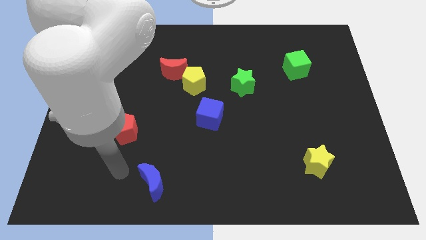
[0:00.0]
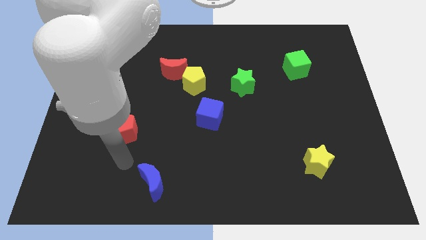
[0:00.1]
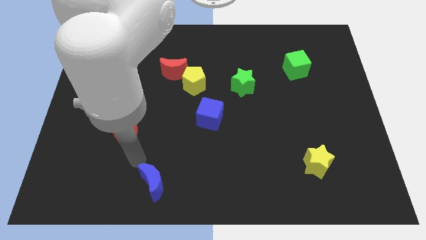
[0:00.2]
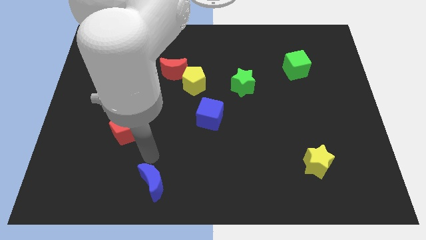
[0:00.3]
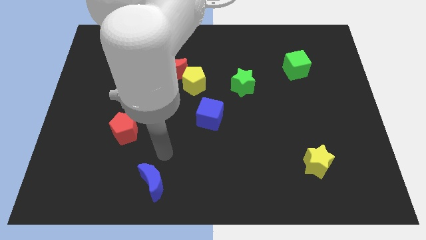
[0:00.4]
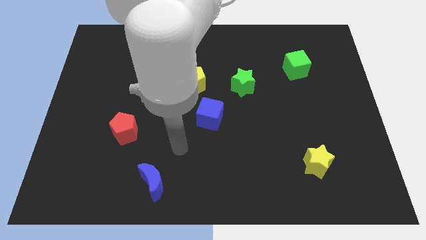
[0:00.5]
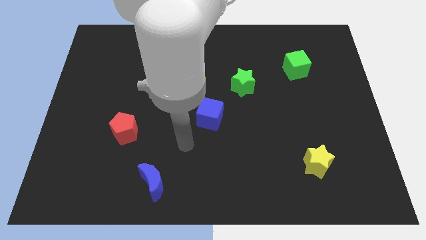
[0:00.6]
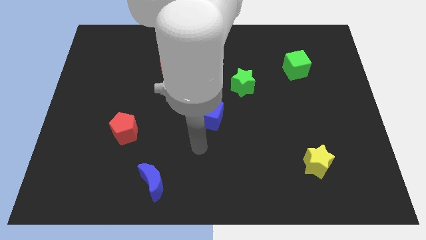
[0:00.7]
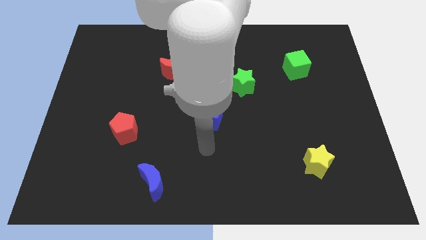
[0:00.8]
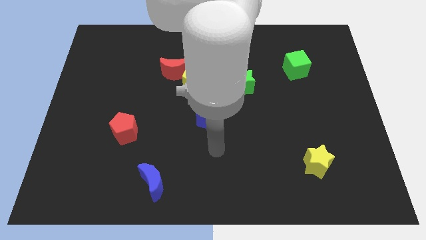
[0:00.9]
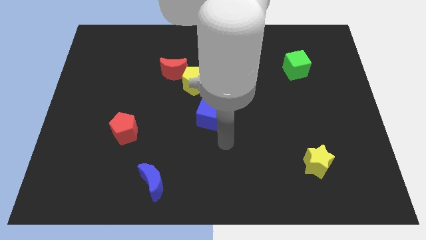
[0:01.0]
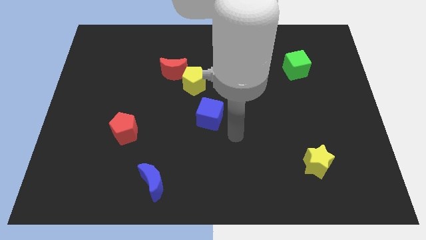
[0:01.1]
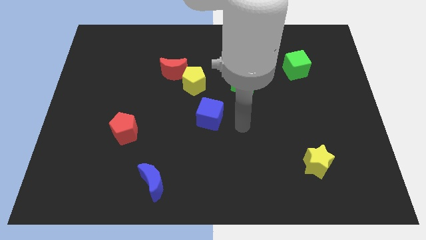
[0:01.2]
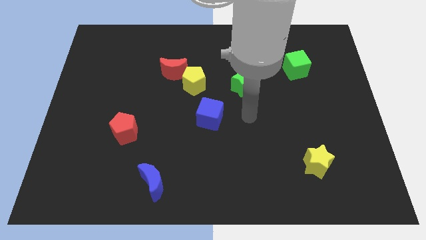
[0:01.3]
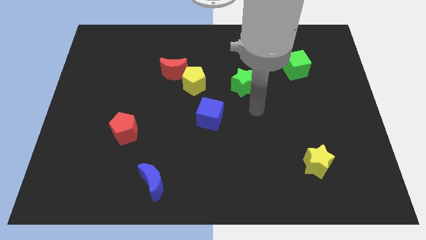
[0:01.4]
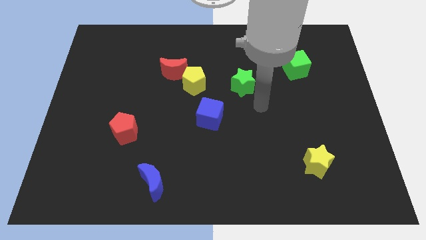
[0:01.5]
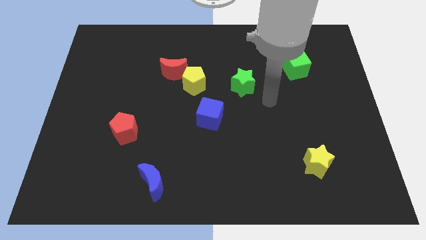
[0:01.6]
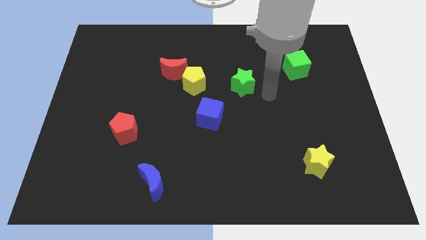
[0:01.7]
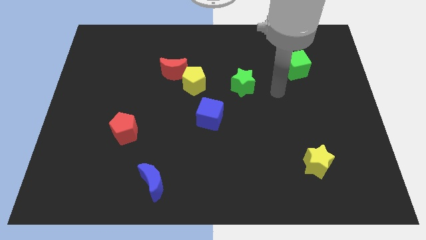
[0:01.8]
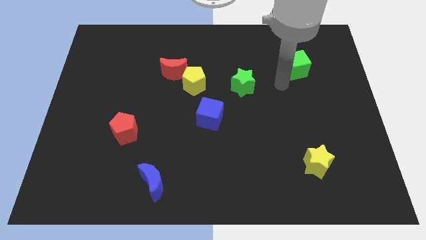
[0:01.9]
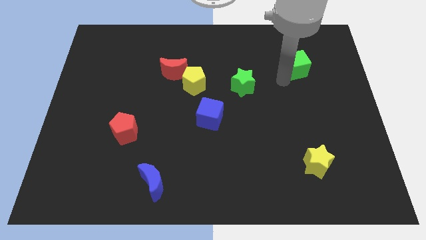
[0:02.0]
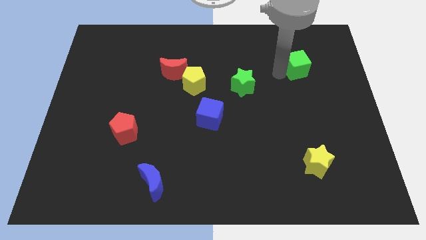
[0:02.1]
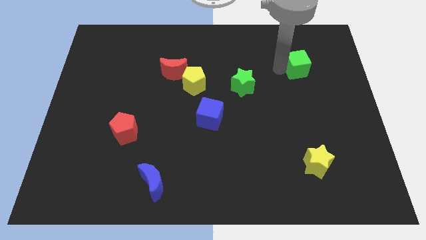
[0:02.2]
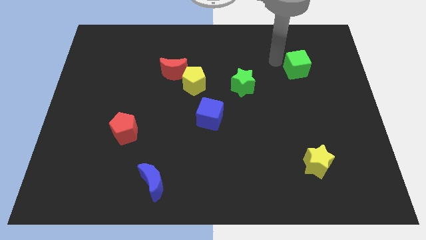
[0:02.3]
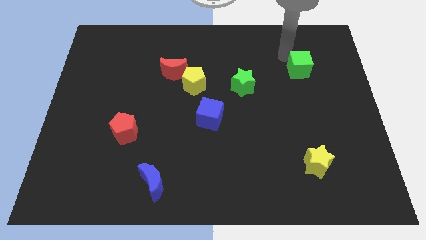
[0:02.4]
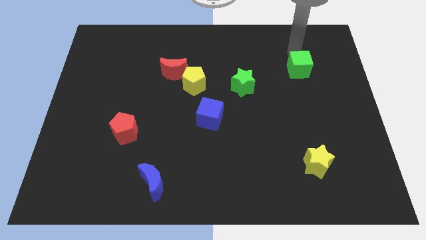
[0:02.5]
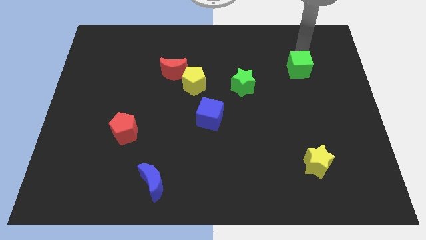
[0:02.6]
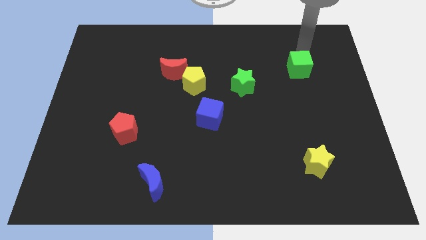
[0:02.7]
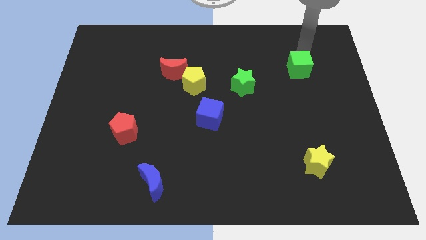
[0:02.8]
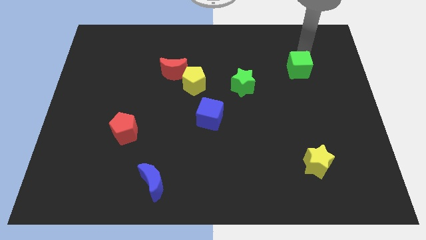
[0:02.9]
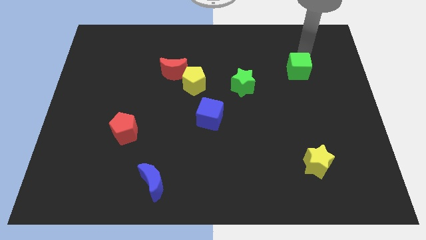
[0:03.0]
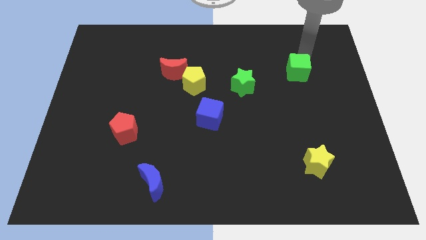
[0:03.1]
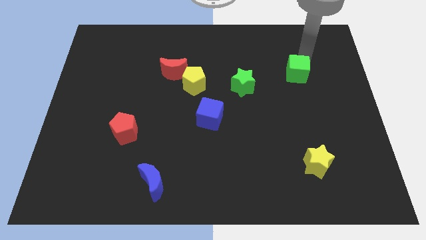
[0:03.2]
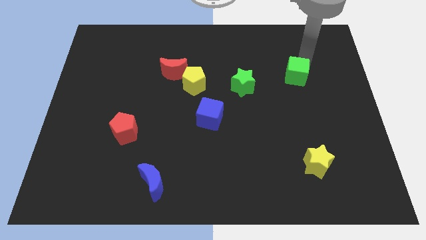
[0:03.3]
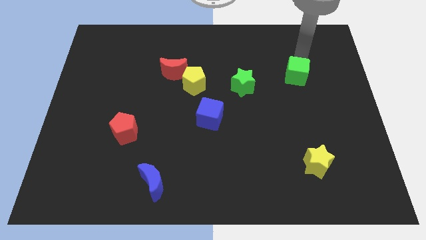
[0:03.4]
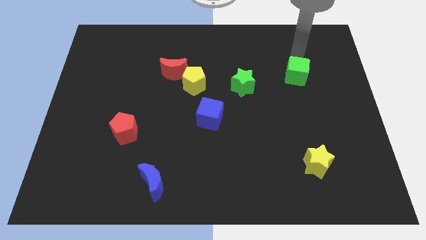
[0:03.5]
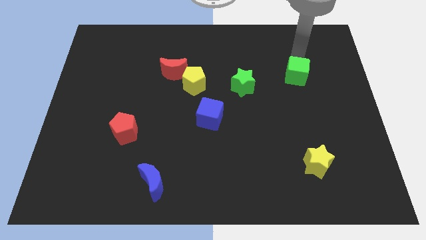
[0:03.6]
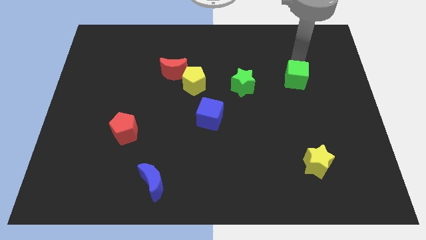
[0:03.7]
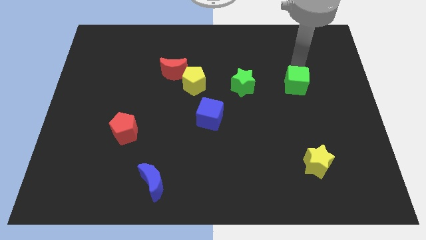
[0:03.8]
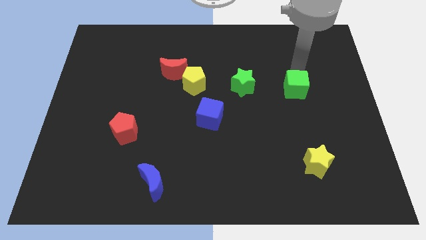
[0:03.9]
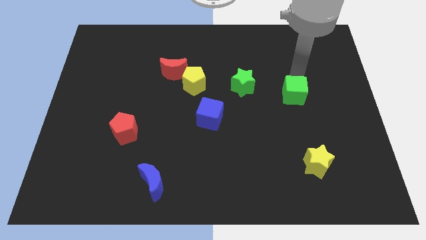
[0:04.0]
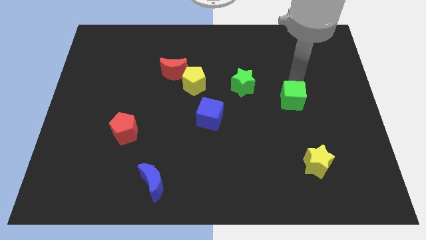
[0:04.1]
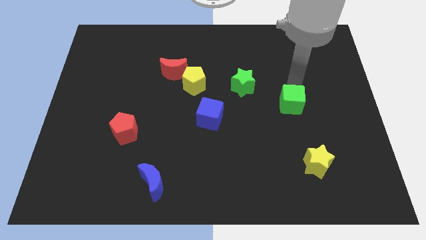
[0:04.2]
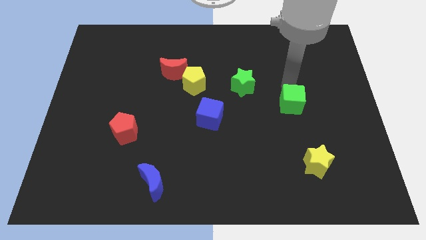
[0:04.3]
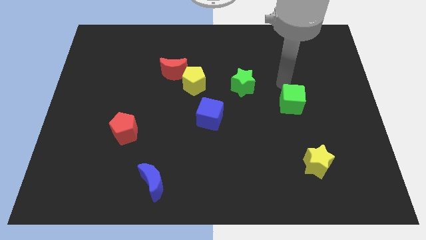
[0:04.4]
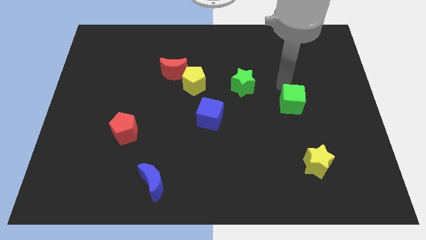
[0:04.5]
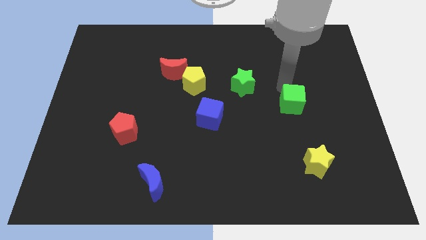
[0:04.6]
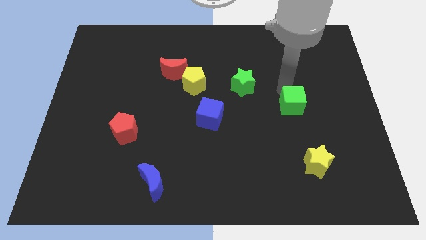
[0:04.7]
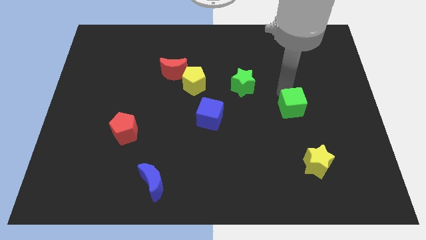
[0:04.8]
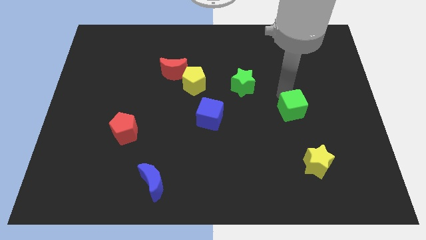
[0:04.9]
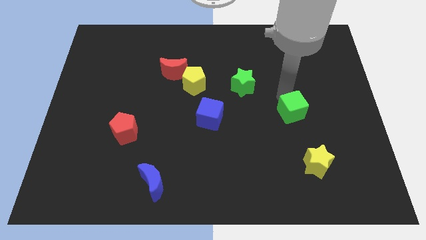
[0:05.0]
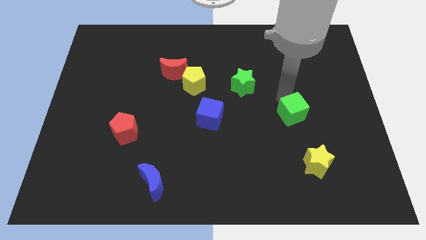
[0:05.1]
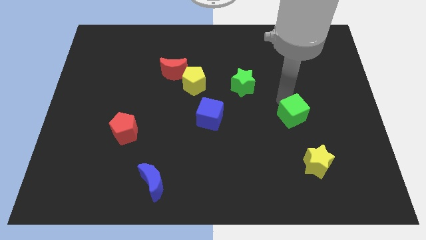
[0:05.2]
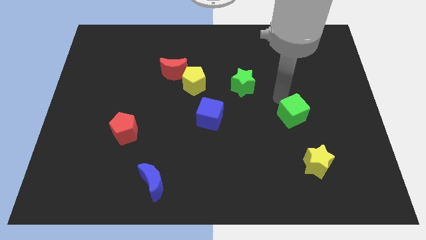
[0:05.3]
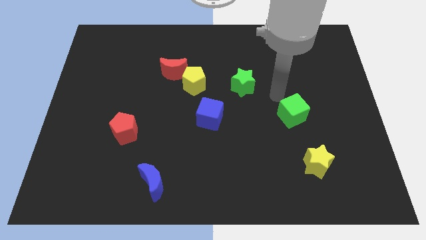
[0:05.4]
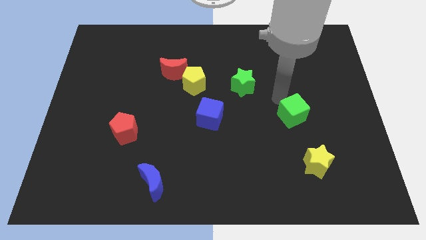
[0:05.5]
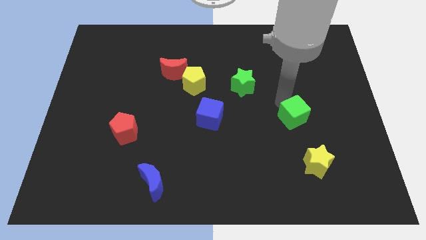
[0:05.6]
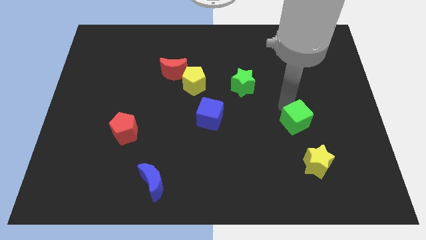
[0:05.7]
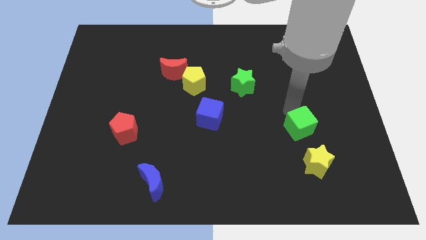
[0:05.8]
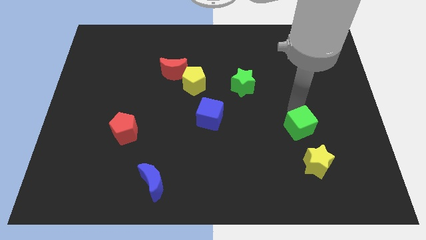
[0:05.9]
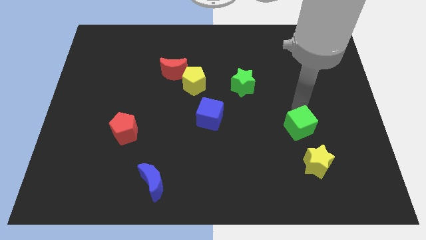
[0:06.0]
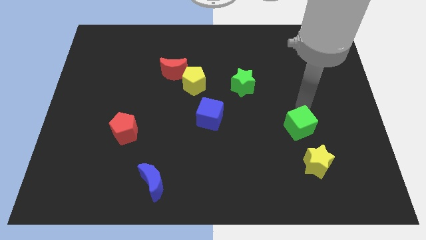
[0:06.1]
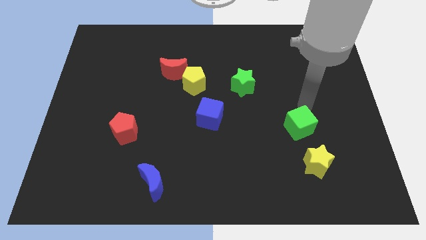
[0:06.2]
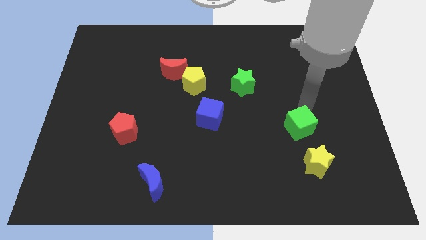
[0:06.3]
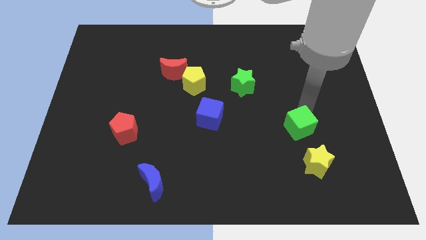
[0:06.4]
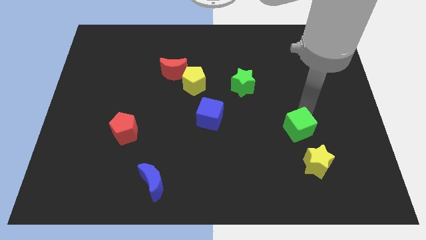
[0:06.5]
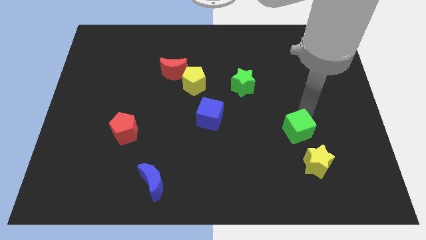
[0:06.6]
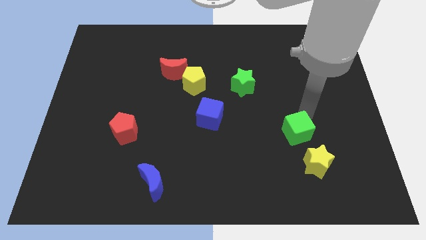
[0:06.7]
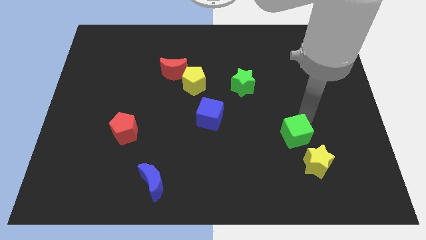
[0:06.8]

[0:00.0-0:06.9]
slide the green cube down

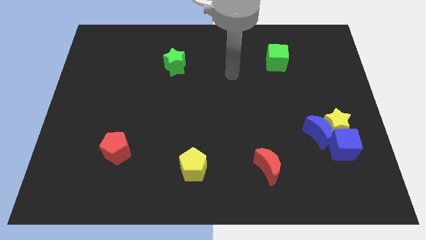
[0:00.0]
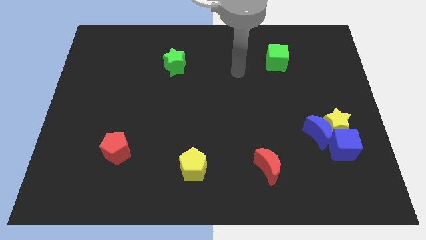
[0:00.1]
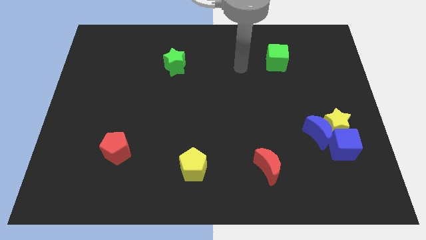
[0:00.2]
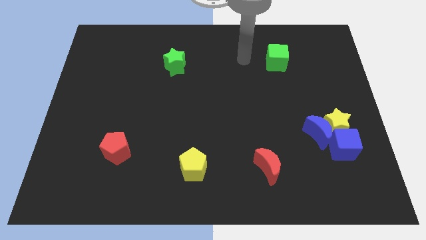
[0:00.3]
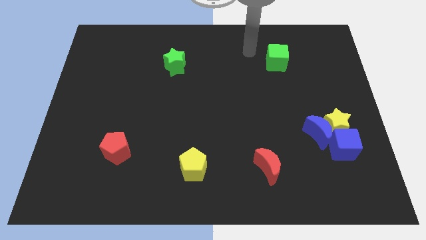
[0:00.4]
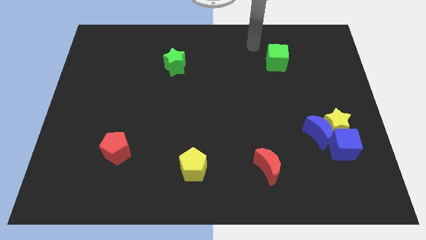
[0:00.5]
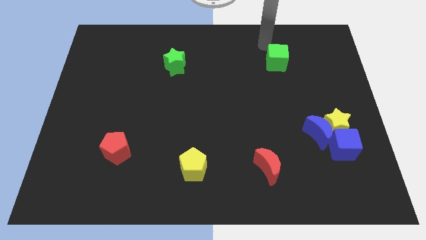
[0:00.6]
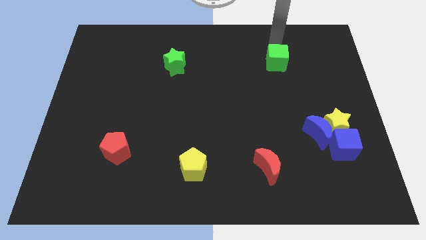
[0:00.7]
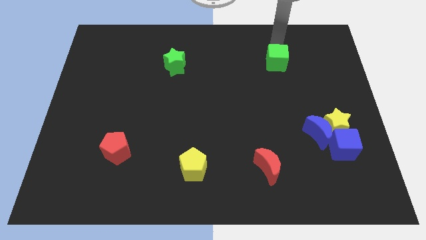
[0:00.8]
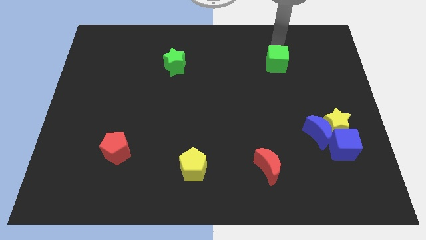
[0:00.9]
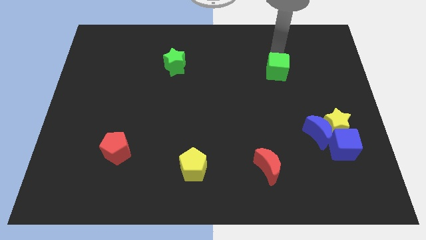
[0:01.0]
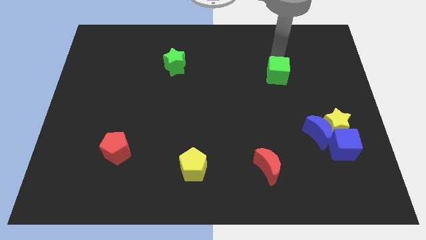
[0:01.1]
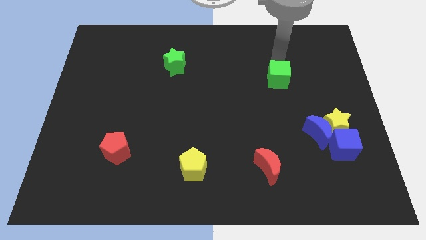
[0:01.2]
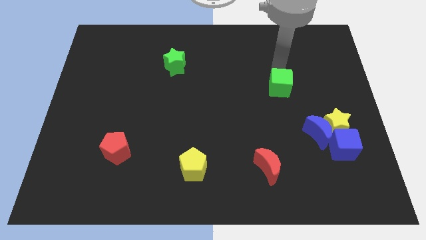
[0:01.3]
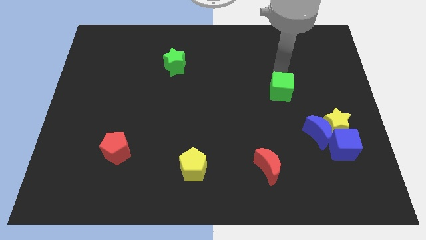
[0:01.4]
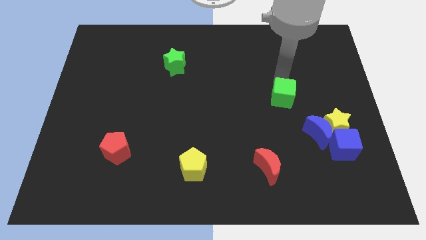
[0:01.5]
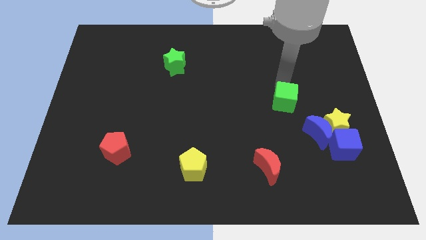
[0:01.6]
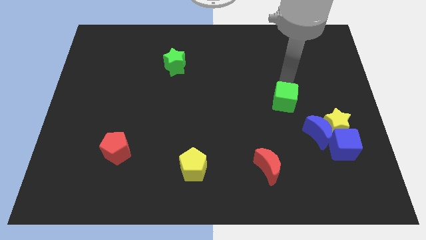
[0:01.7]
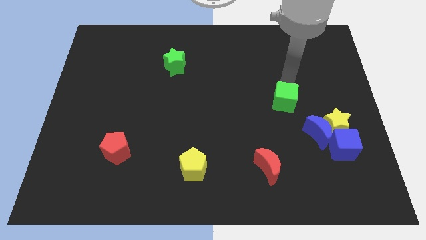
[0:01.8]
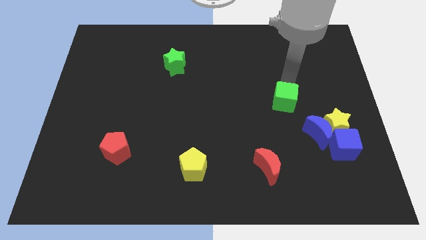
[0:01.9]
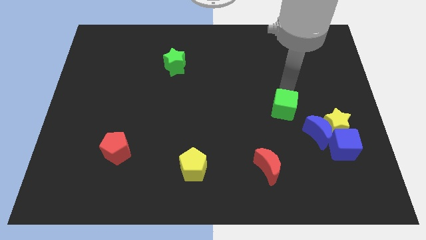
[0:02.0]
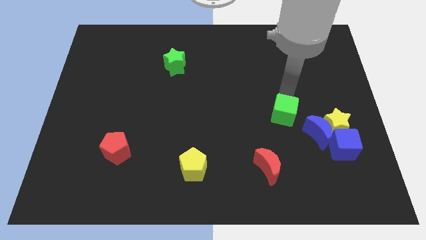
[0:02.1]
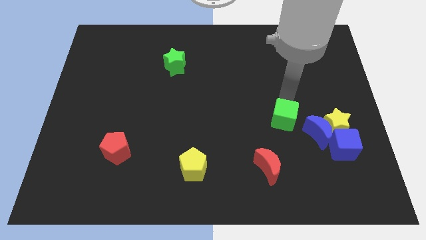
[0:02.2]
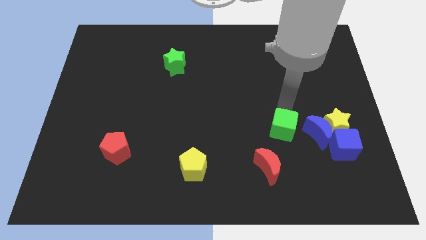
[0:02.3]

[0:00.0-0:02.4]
move the green cube down
